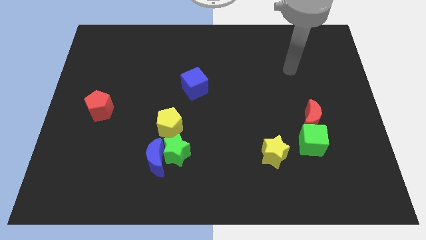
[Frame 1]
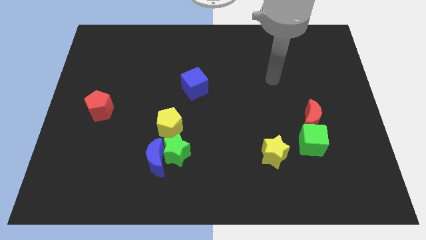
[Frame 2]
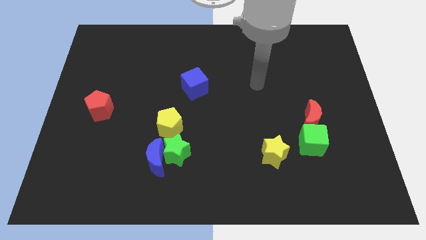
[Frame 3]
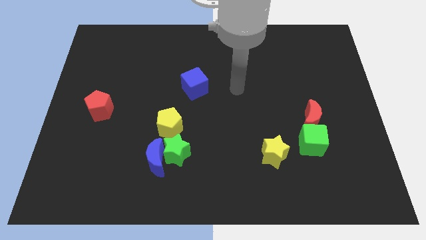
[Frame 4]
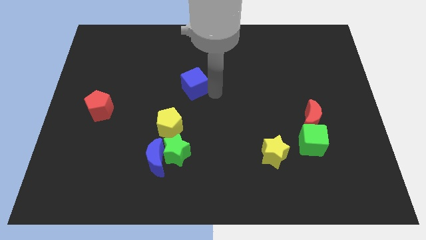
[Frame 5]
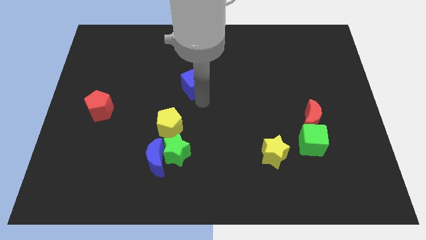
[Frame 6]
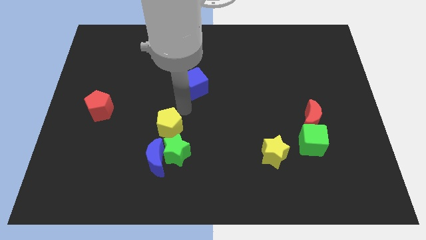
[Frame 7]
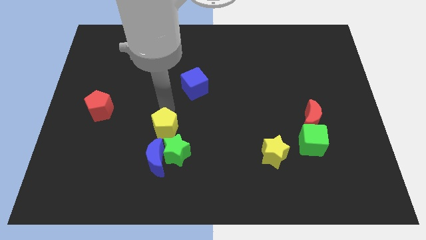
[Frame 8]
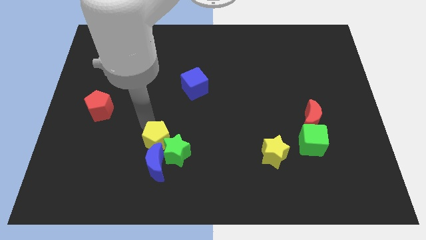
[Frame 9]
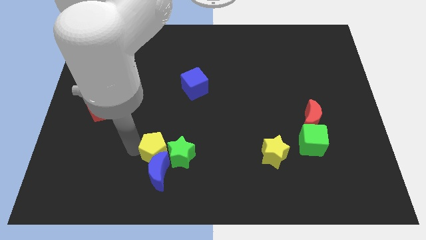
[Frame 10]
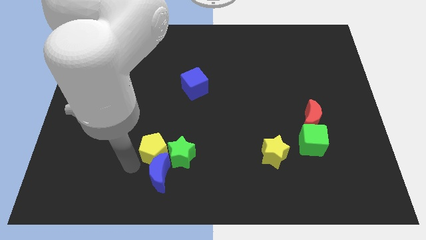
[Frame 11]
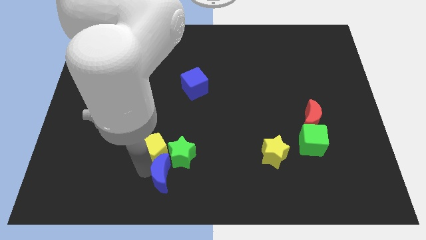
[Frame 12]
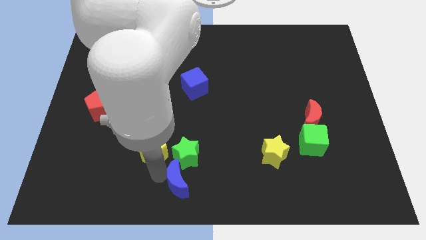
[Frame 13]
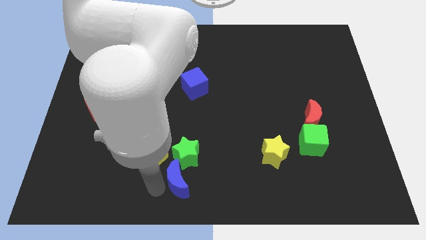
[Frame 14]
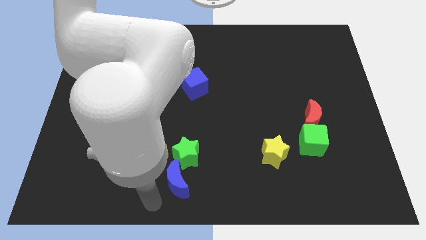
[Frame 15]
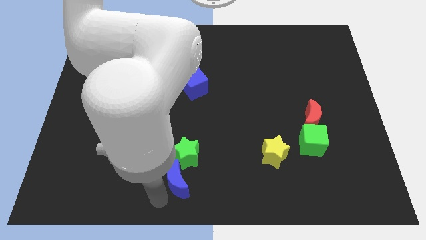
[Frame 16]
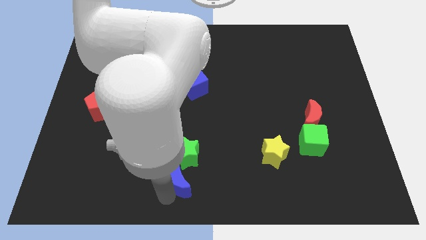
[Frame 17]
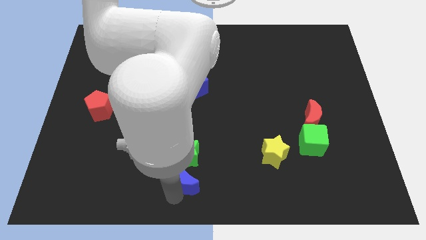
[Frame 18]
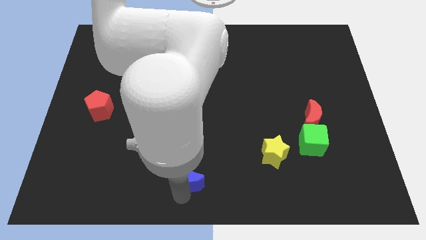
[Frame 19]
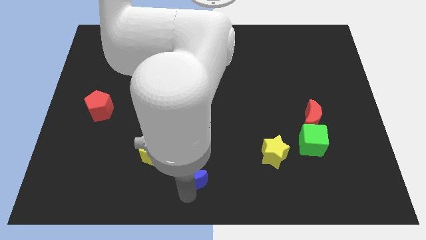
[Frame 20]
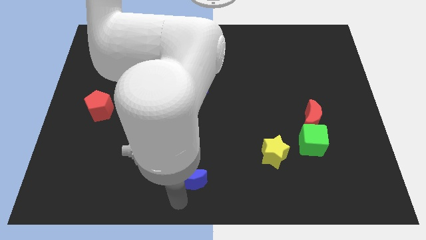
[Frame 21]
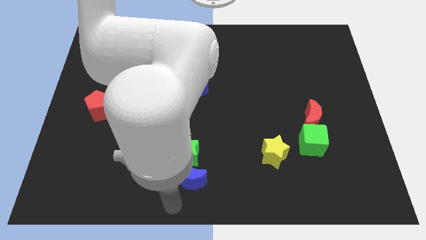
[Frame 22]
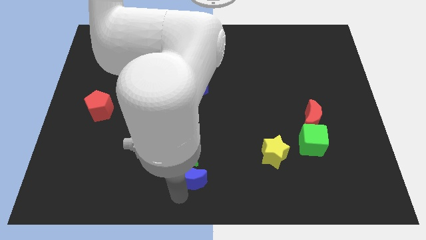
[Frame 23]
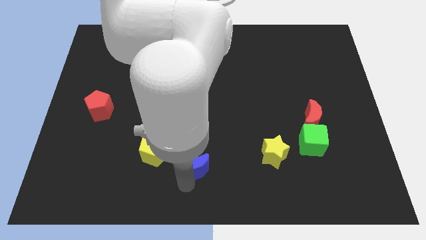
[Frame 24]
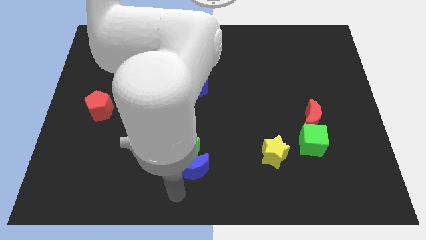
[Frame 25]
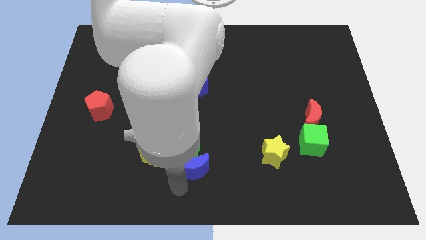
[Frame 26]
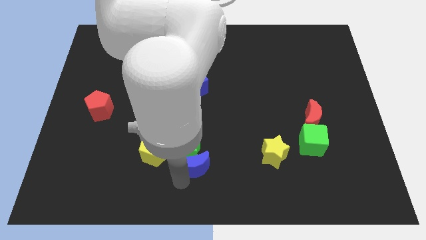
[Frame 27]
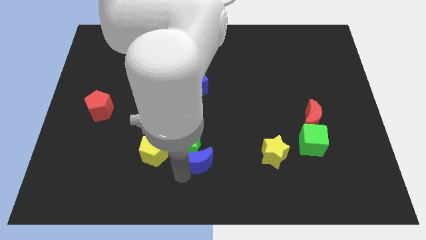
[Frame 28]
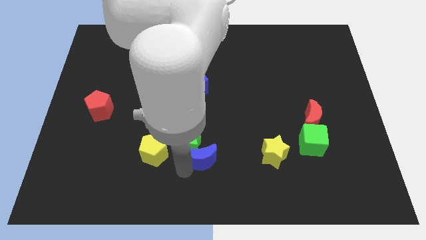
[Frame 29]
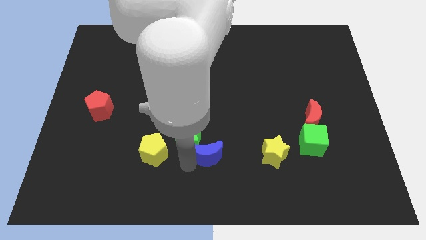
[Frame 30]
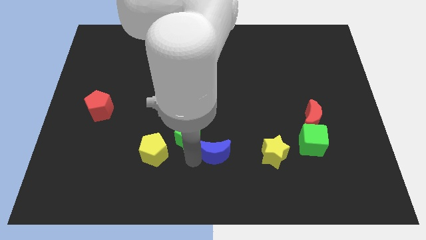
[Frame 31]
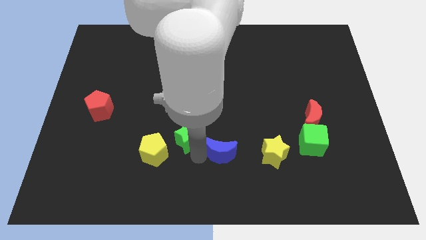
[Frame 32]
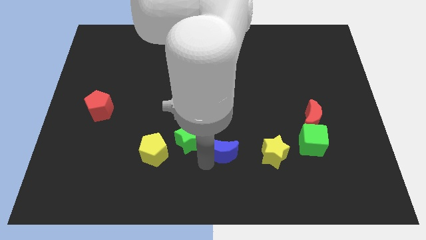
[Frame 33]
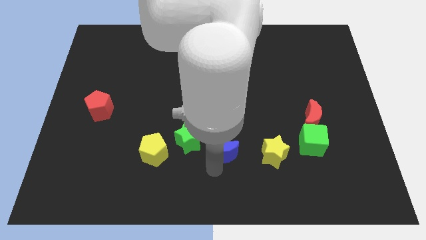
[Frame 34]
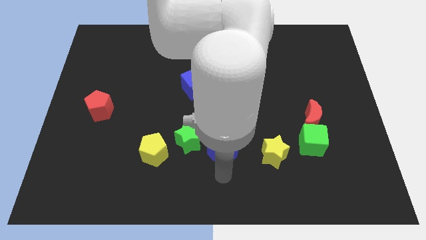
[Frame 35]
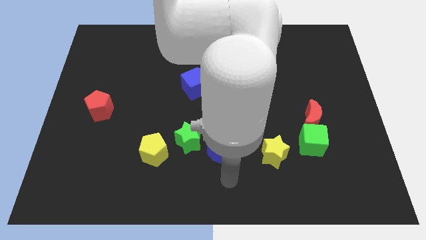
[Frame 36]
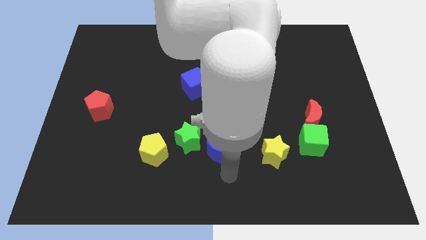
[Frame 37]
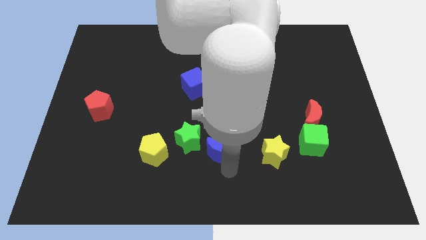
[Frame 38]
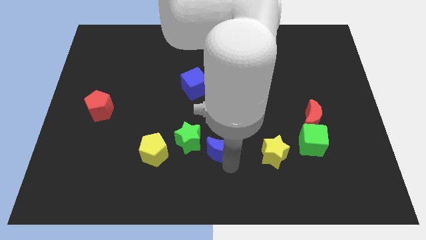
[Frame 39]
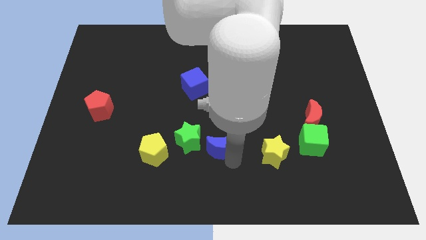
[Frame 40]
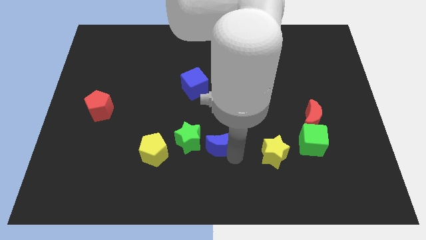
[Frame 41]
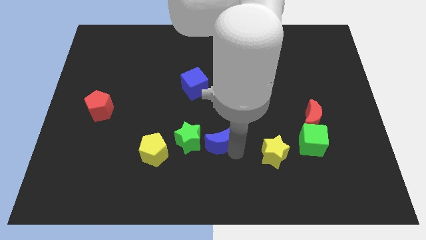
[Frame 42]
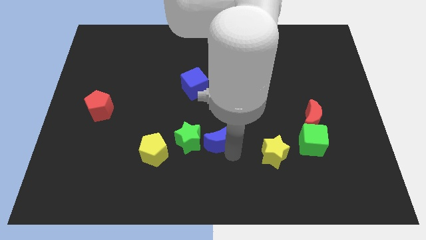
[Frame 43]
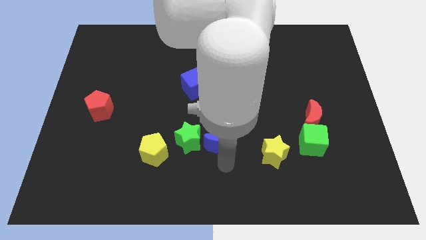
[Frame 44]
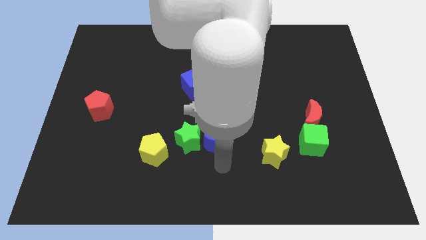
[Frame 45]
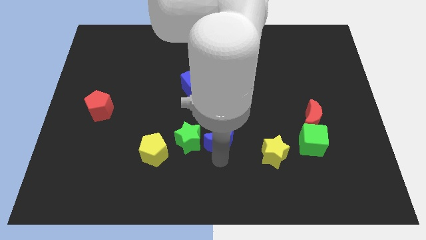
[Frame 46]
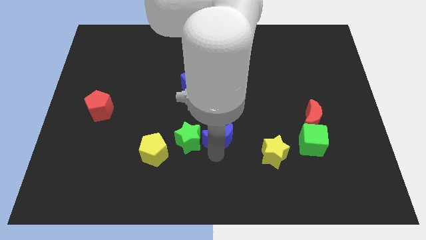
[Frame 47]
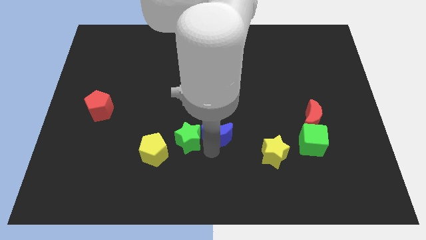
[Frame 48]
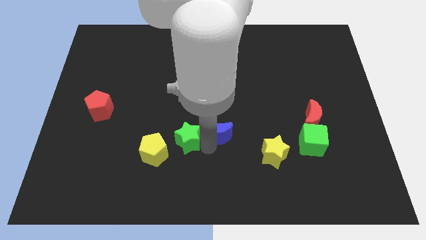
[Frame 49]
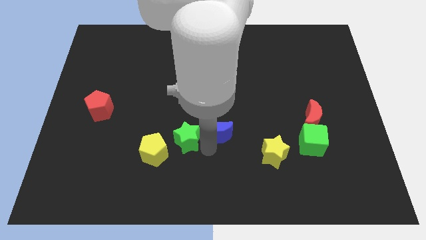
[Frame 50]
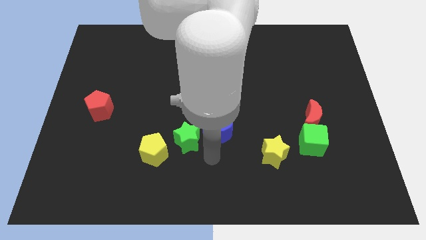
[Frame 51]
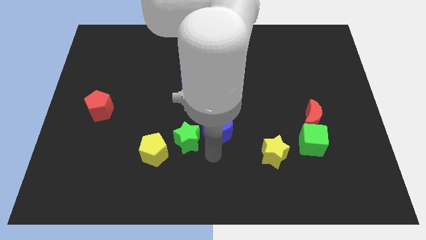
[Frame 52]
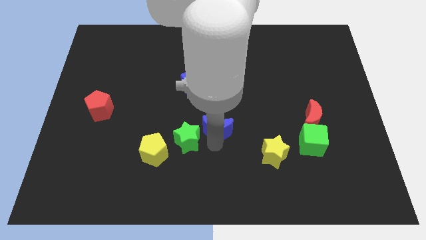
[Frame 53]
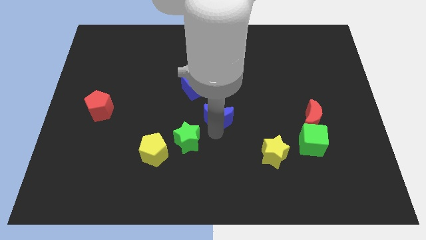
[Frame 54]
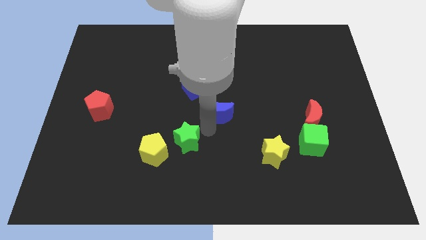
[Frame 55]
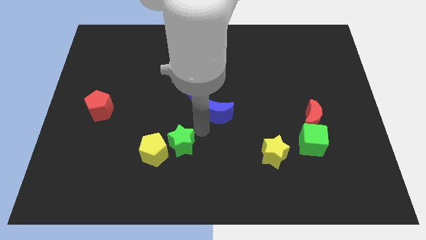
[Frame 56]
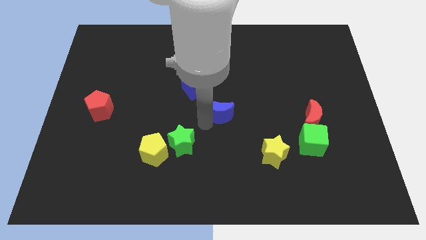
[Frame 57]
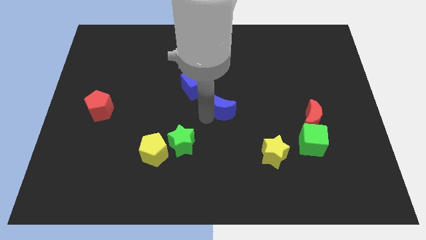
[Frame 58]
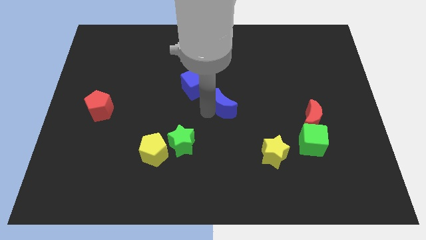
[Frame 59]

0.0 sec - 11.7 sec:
slide the blue moon up and right

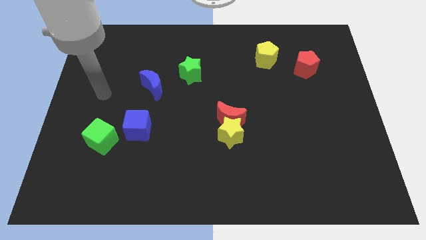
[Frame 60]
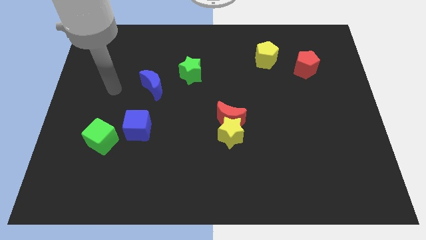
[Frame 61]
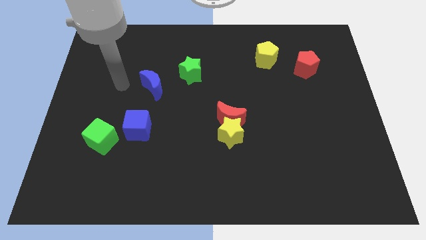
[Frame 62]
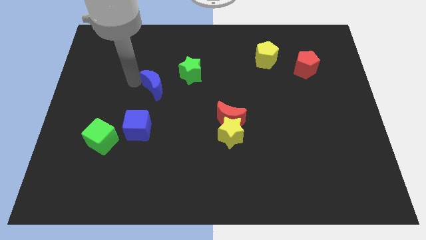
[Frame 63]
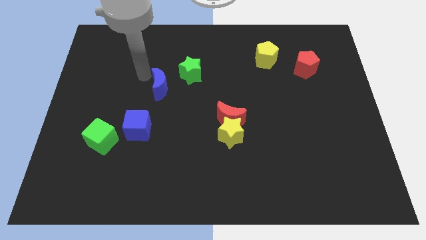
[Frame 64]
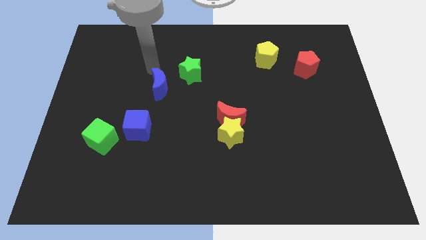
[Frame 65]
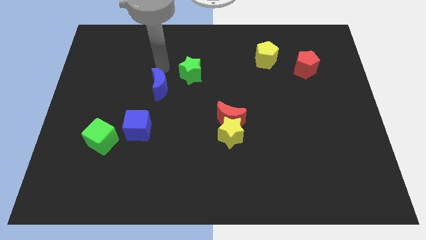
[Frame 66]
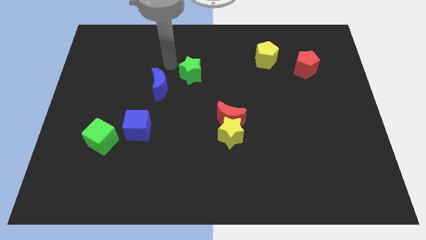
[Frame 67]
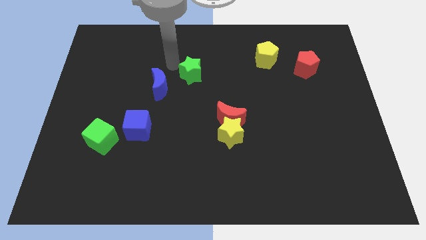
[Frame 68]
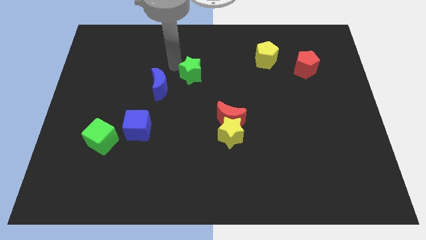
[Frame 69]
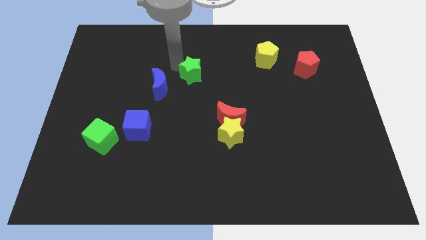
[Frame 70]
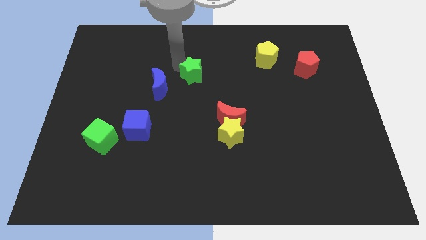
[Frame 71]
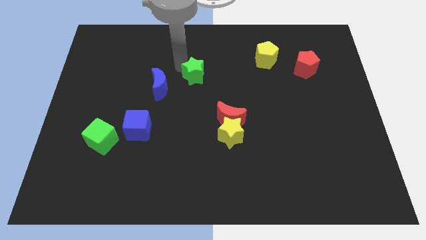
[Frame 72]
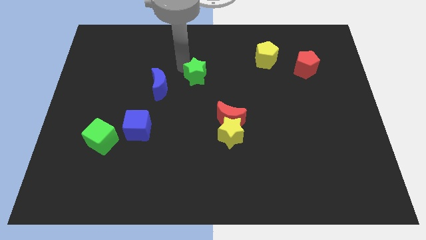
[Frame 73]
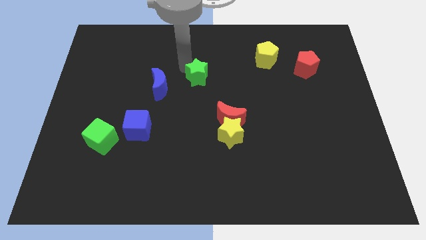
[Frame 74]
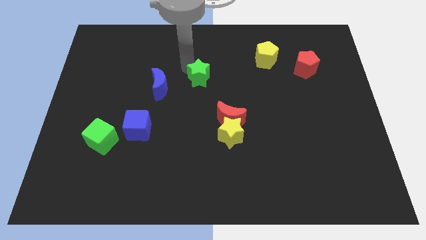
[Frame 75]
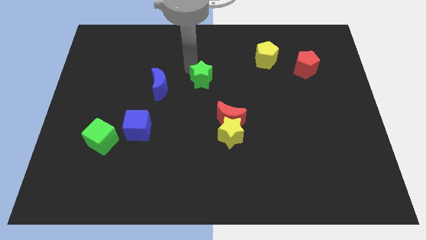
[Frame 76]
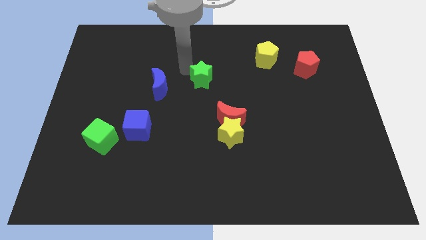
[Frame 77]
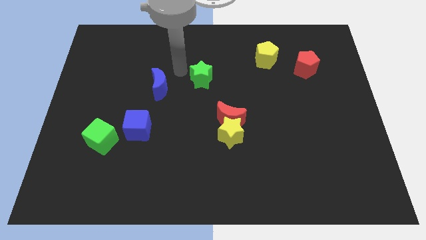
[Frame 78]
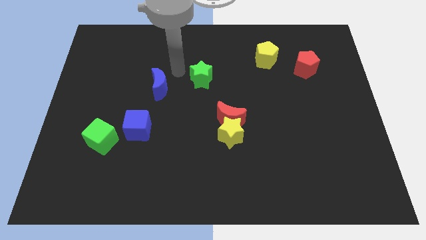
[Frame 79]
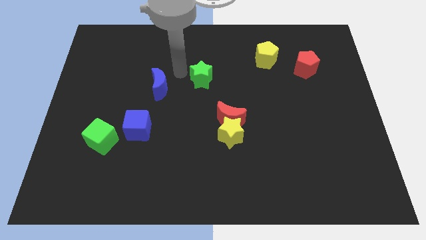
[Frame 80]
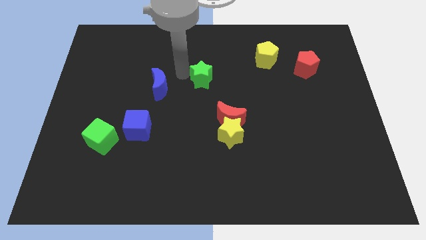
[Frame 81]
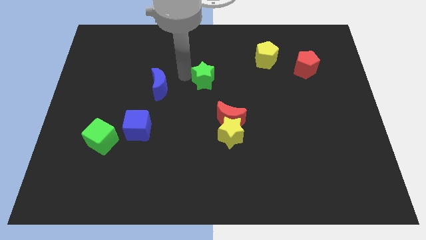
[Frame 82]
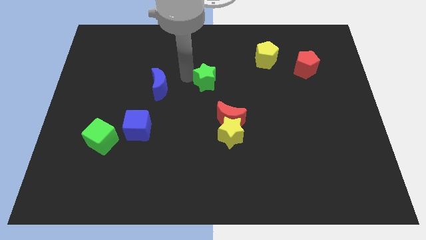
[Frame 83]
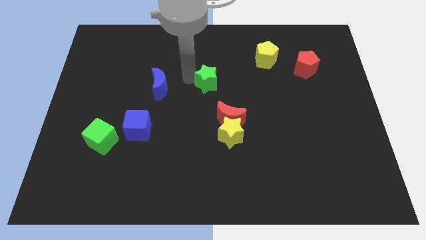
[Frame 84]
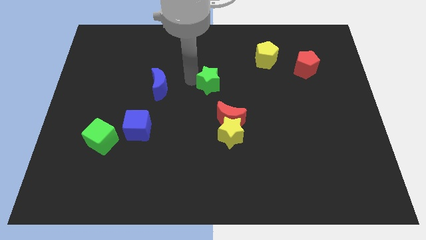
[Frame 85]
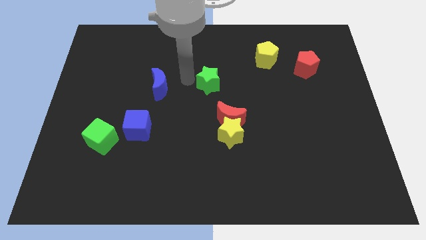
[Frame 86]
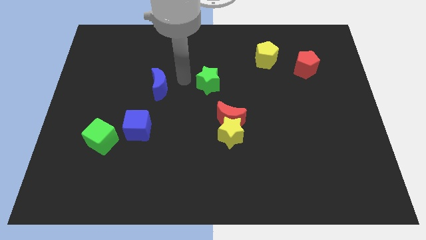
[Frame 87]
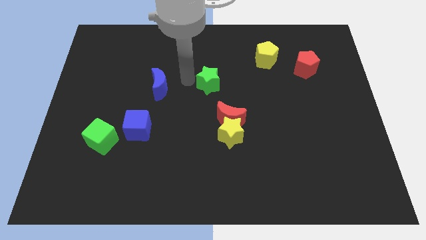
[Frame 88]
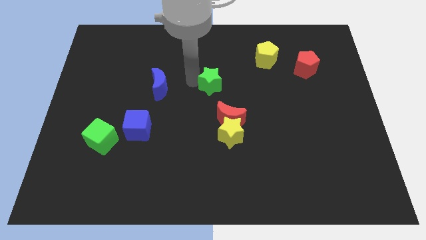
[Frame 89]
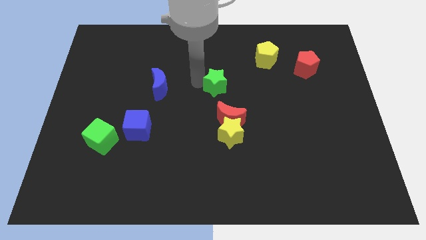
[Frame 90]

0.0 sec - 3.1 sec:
slightly push the green star down and to the right
